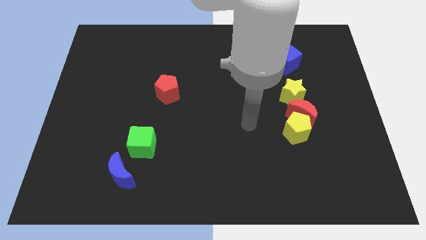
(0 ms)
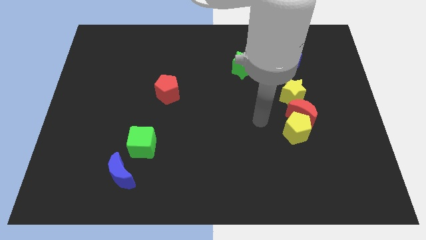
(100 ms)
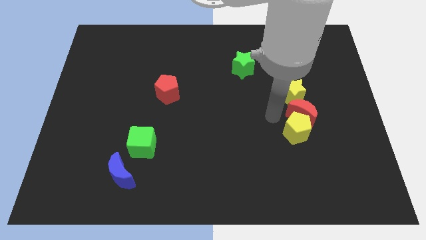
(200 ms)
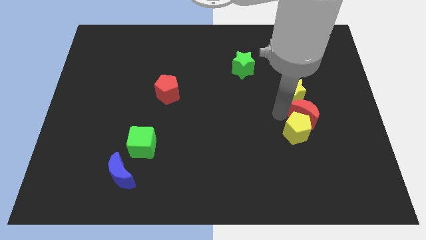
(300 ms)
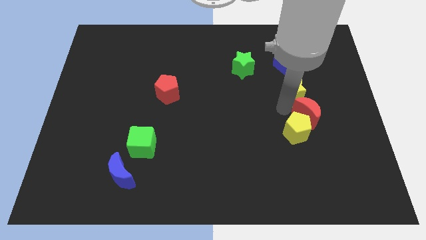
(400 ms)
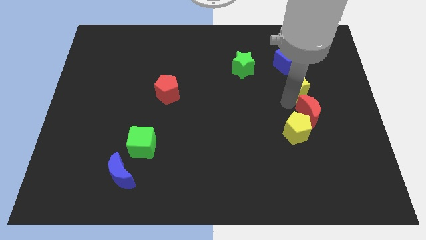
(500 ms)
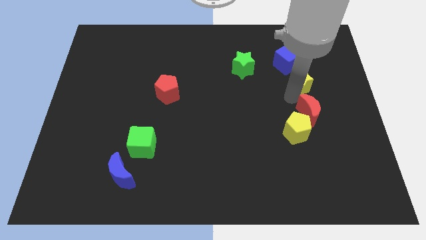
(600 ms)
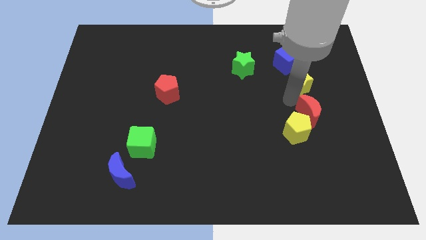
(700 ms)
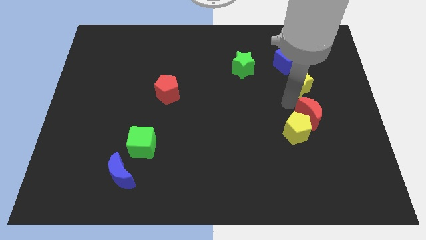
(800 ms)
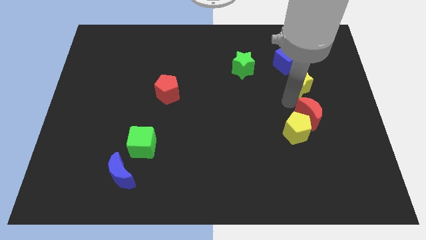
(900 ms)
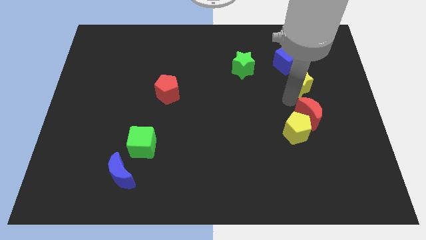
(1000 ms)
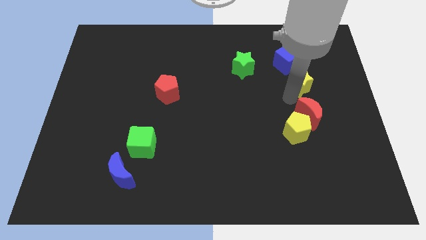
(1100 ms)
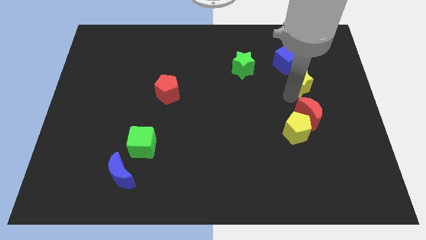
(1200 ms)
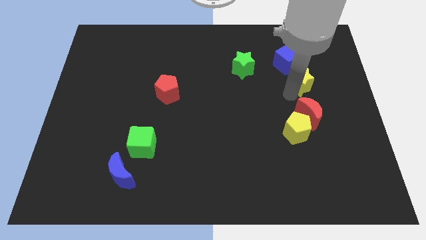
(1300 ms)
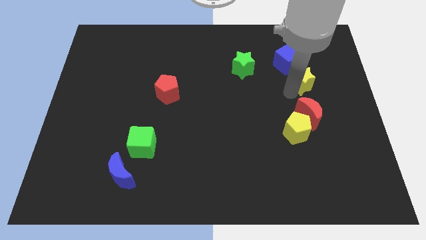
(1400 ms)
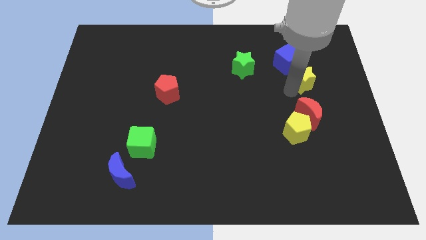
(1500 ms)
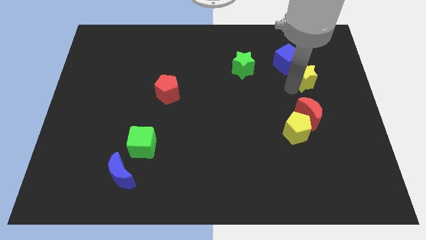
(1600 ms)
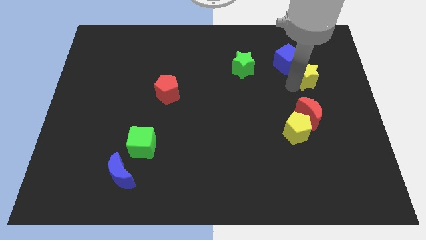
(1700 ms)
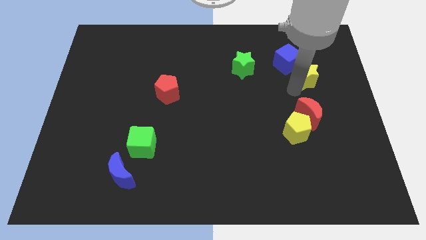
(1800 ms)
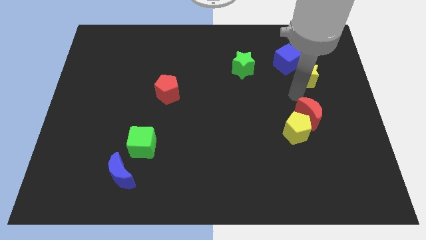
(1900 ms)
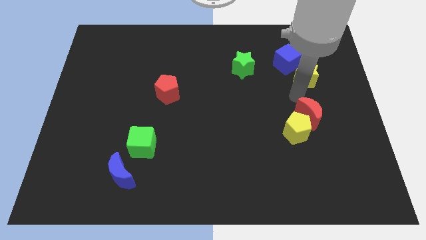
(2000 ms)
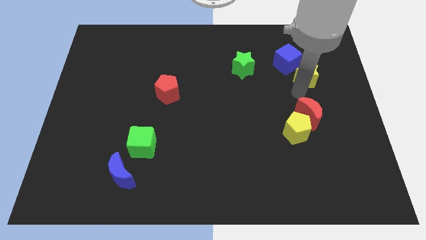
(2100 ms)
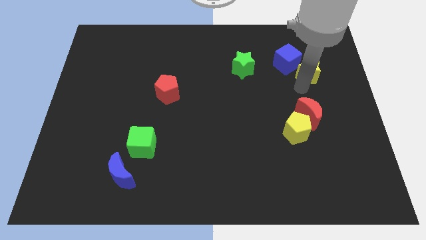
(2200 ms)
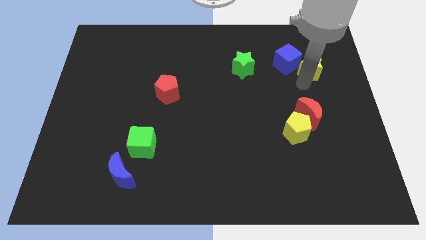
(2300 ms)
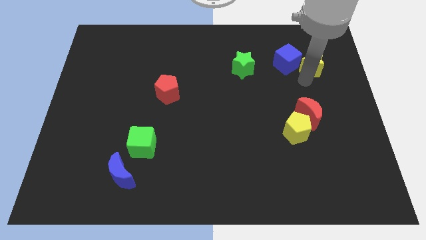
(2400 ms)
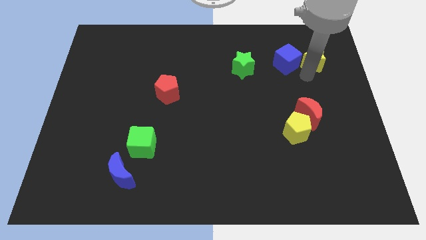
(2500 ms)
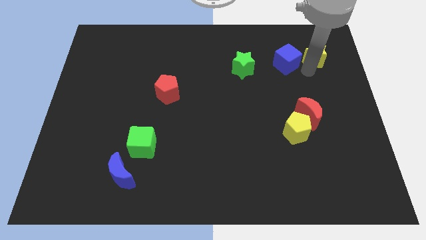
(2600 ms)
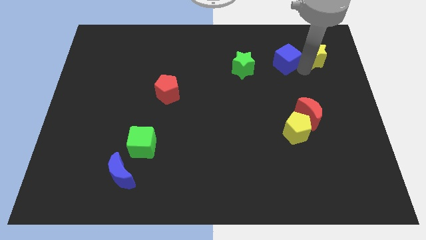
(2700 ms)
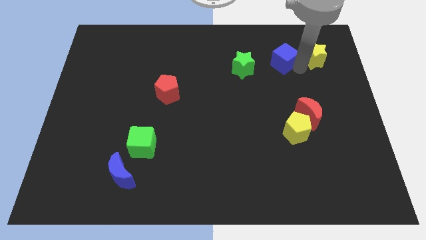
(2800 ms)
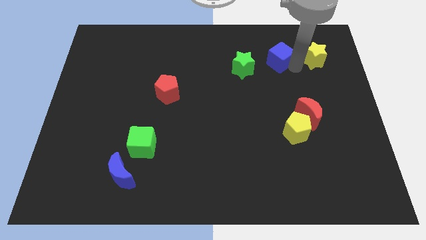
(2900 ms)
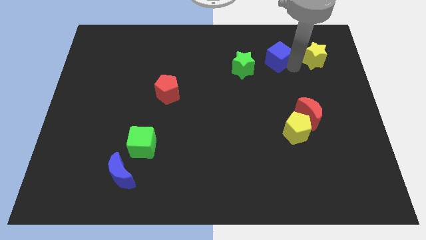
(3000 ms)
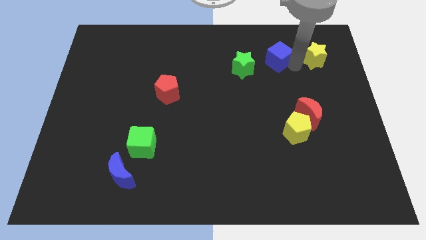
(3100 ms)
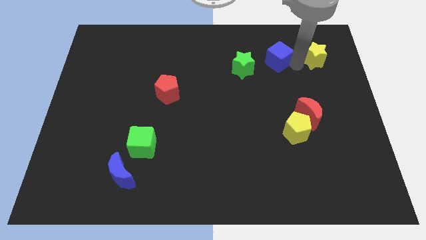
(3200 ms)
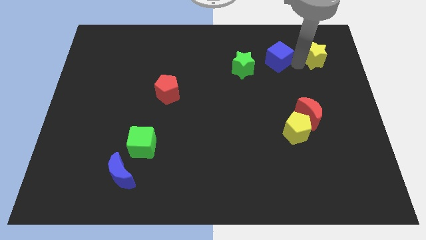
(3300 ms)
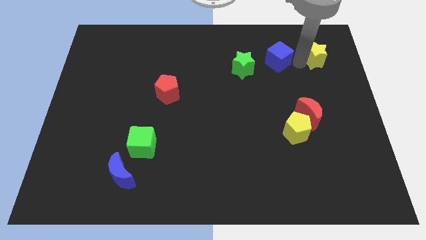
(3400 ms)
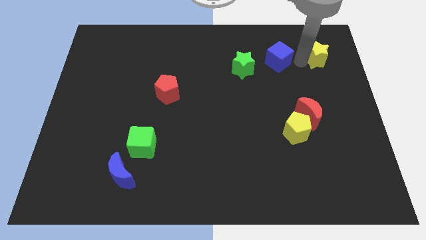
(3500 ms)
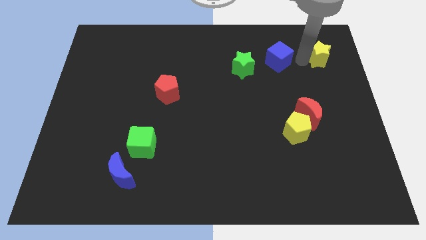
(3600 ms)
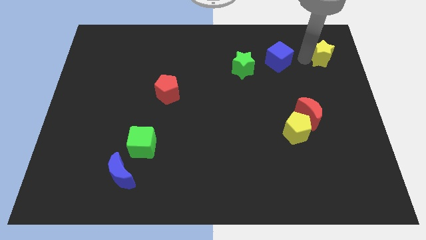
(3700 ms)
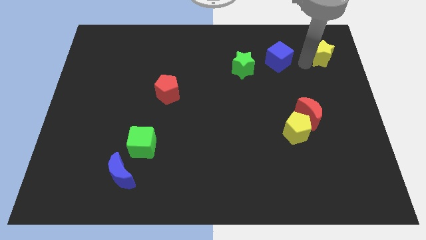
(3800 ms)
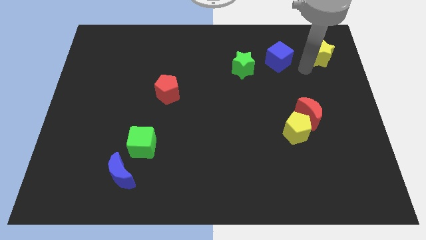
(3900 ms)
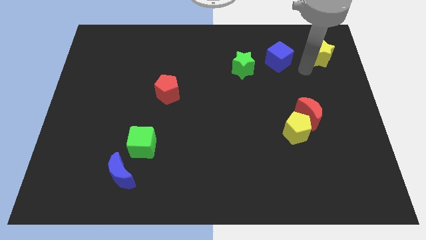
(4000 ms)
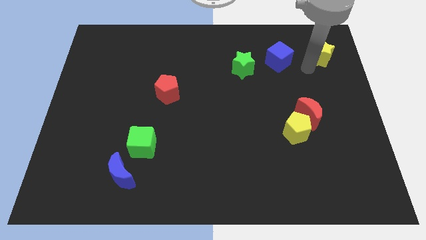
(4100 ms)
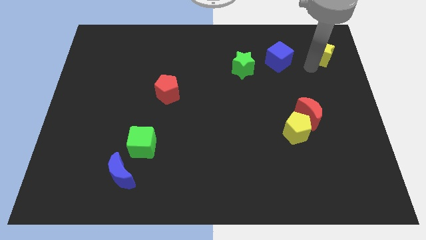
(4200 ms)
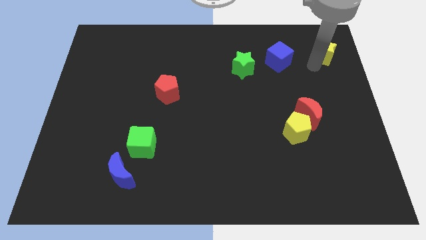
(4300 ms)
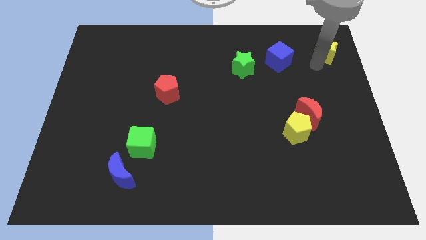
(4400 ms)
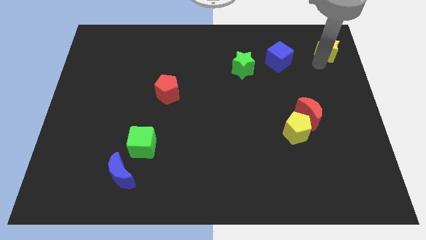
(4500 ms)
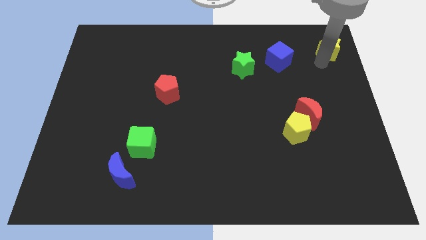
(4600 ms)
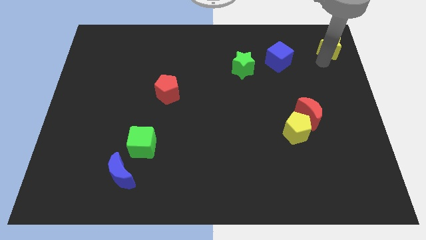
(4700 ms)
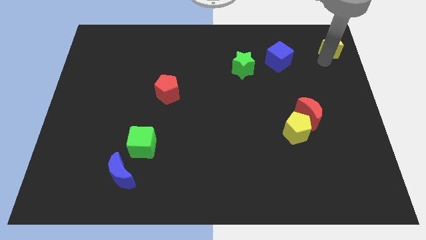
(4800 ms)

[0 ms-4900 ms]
put the yellow star to the top right corner

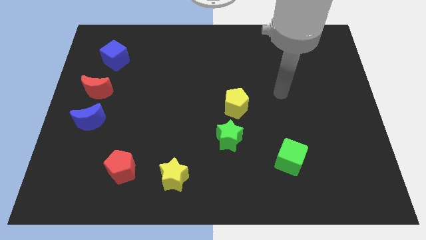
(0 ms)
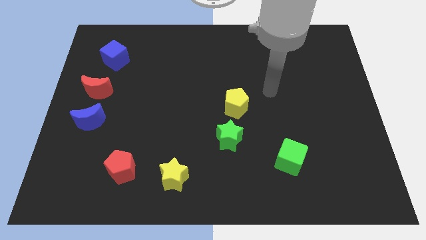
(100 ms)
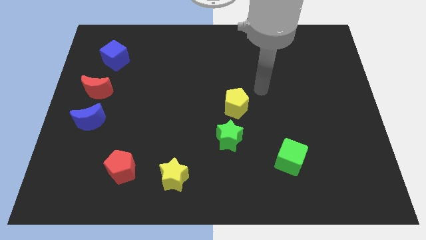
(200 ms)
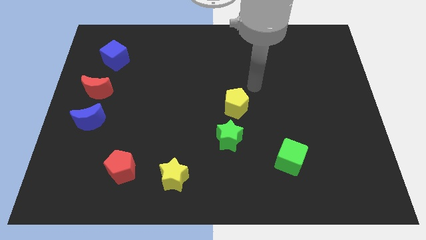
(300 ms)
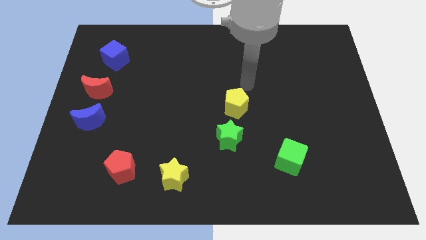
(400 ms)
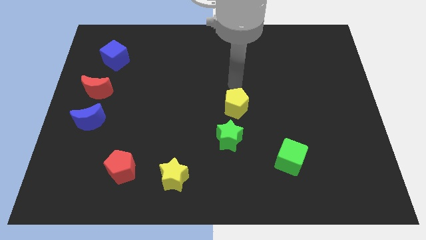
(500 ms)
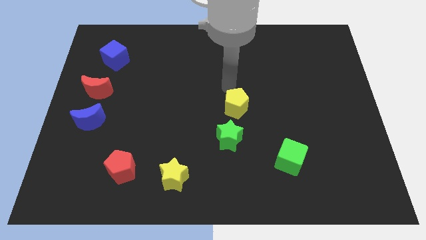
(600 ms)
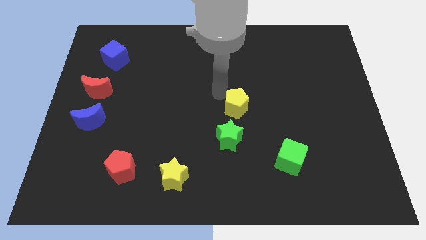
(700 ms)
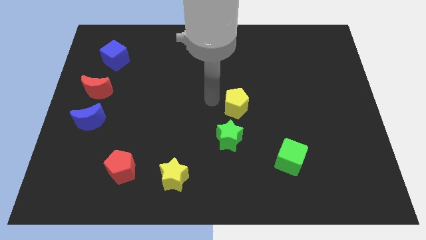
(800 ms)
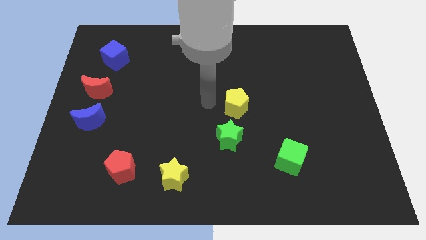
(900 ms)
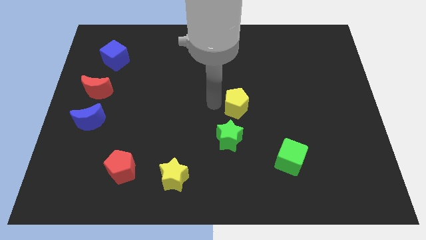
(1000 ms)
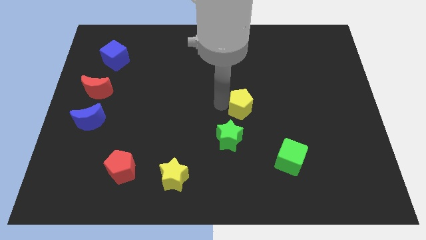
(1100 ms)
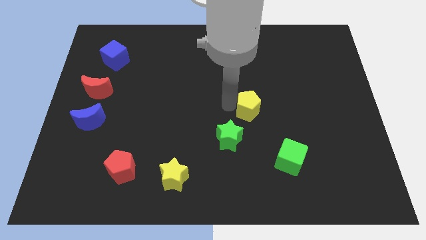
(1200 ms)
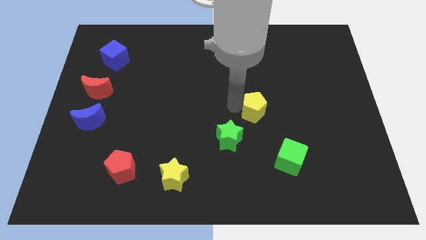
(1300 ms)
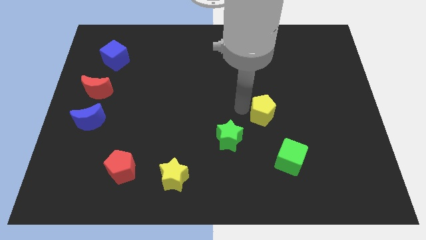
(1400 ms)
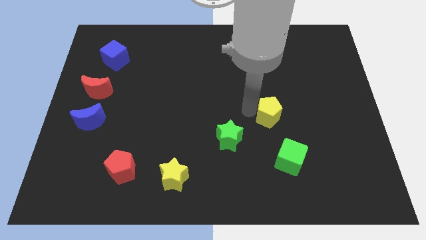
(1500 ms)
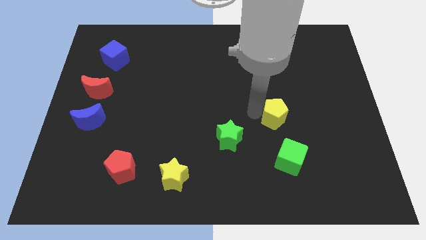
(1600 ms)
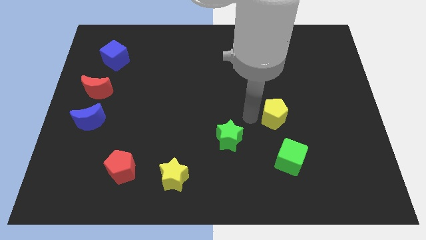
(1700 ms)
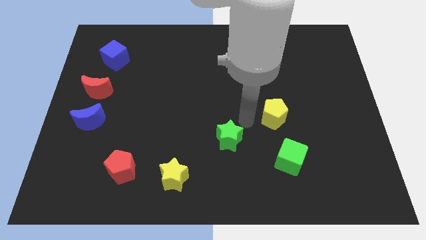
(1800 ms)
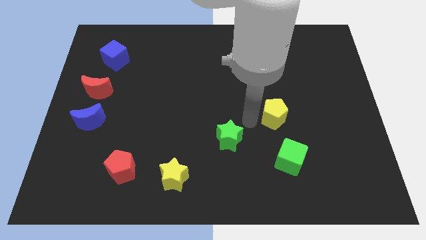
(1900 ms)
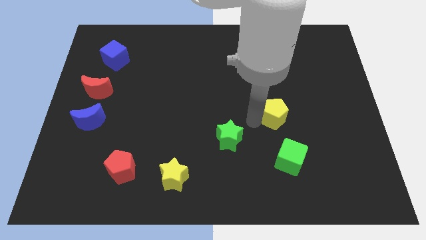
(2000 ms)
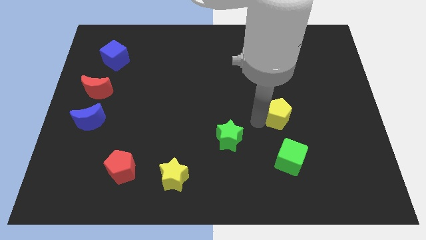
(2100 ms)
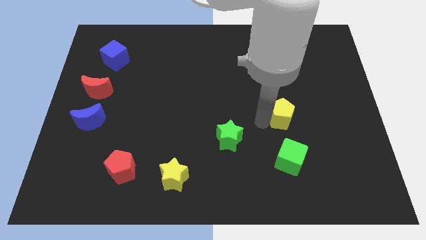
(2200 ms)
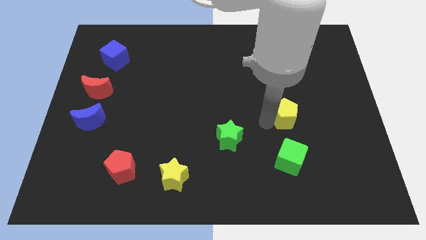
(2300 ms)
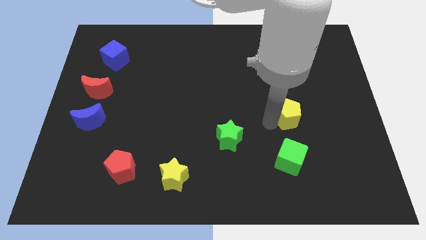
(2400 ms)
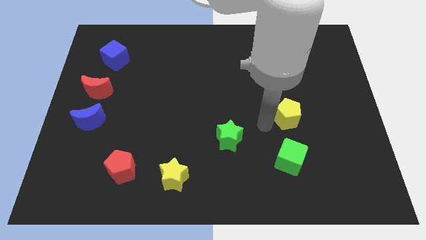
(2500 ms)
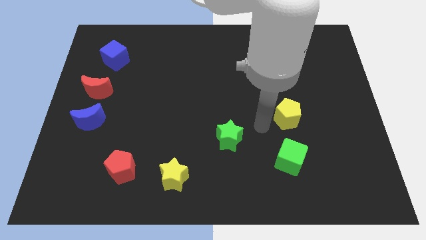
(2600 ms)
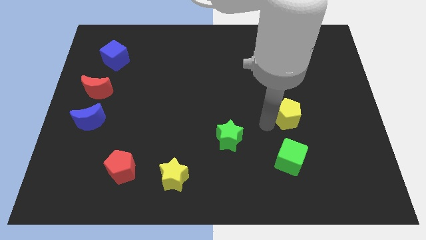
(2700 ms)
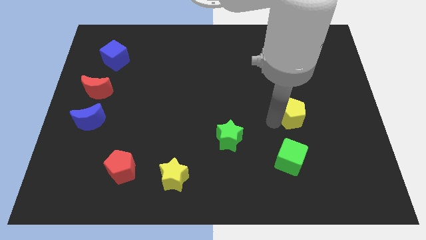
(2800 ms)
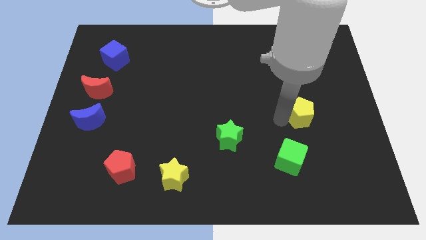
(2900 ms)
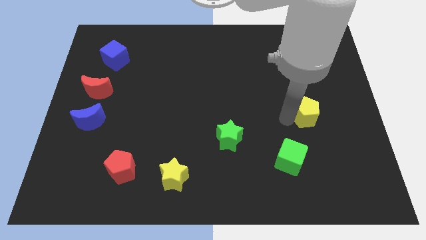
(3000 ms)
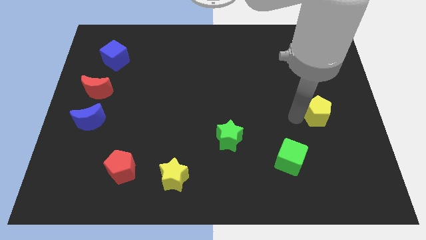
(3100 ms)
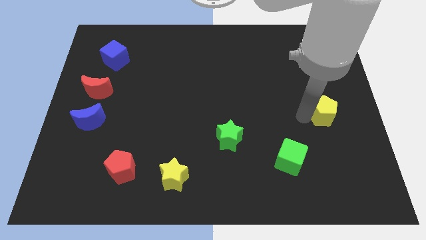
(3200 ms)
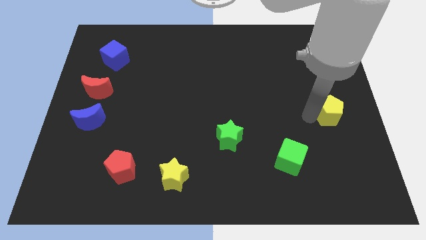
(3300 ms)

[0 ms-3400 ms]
put the yellow pentagon to the right side
